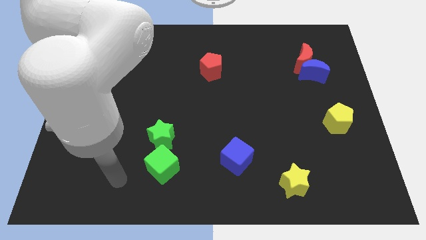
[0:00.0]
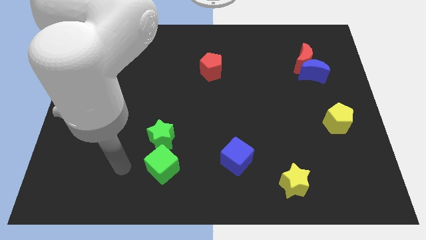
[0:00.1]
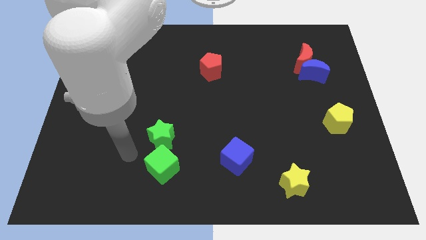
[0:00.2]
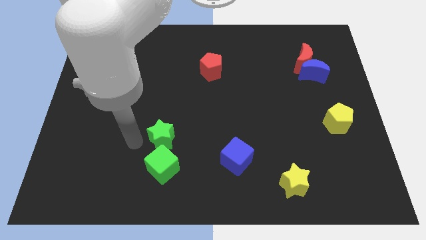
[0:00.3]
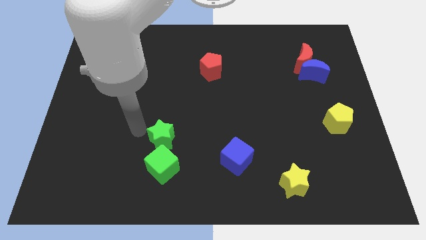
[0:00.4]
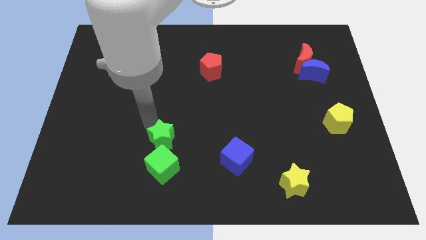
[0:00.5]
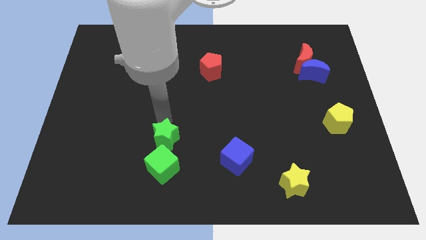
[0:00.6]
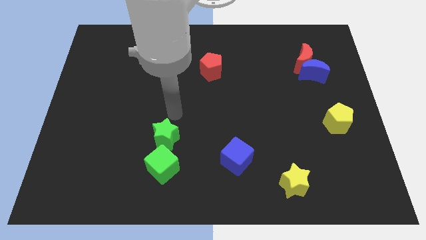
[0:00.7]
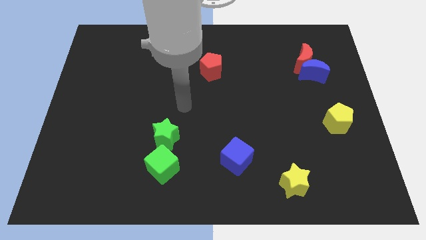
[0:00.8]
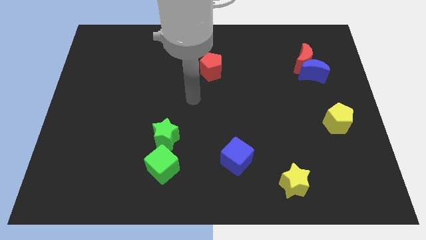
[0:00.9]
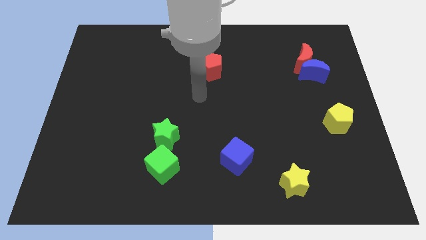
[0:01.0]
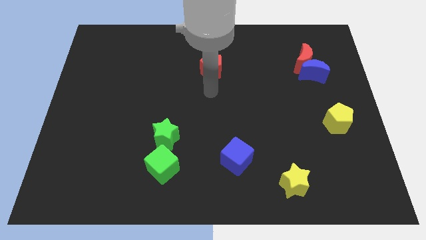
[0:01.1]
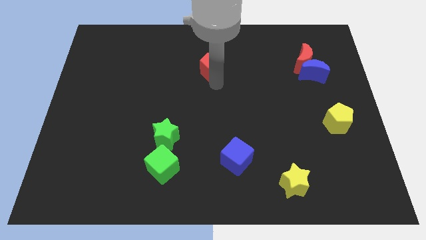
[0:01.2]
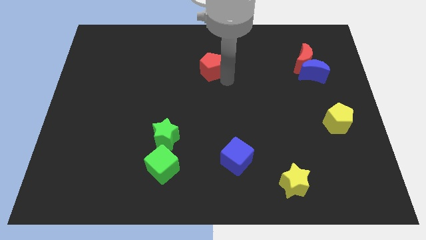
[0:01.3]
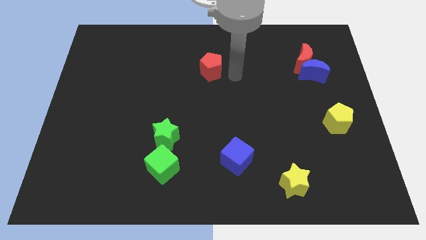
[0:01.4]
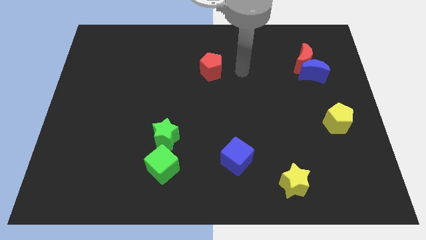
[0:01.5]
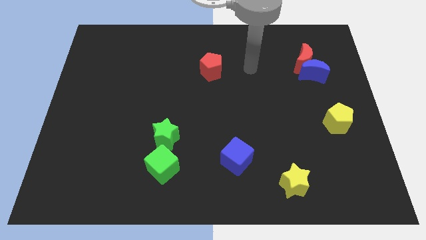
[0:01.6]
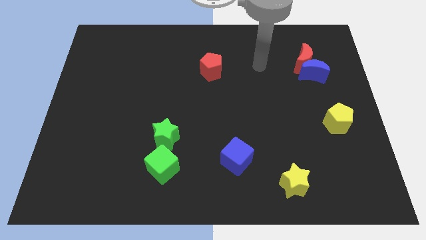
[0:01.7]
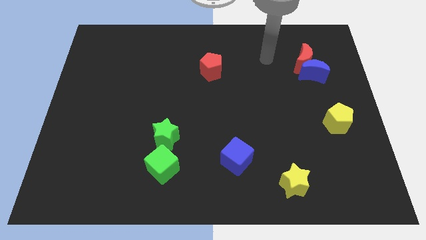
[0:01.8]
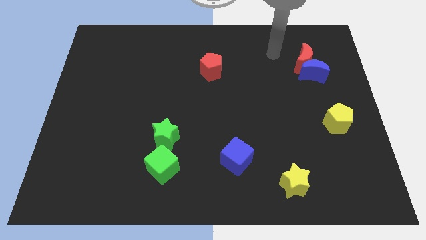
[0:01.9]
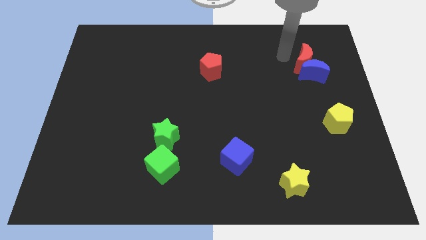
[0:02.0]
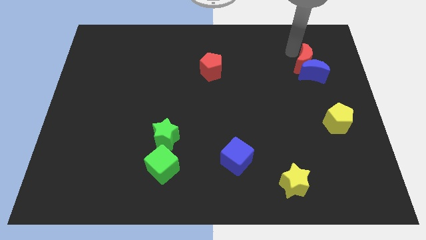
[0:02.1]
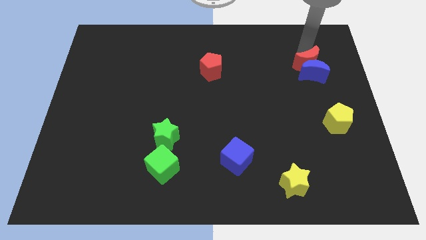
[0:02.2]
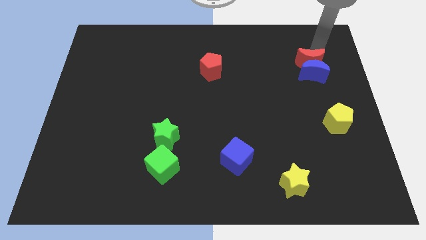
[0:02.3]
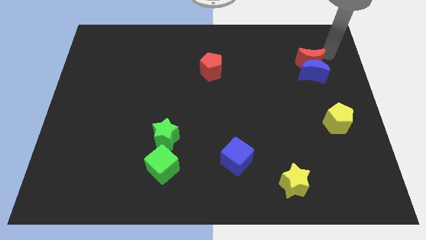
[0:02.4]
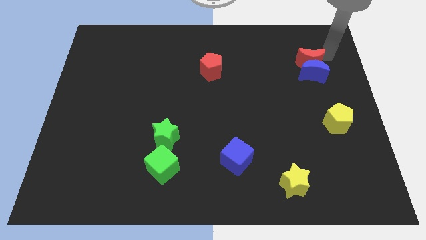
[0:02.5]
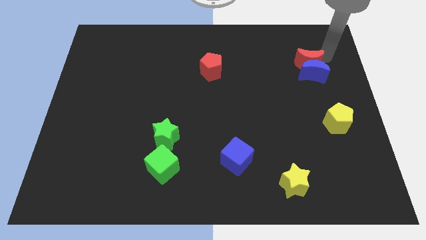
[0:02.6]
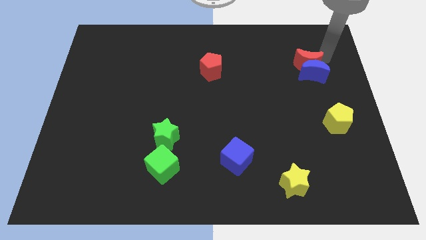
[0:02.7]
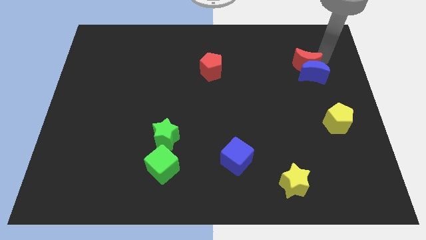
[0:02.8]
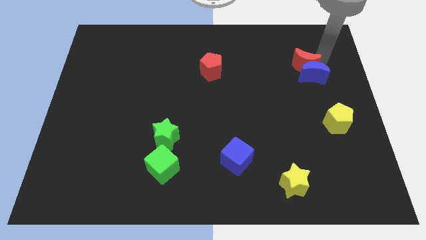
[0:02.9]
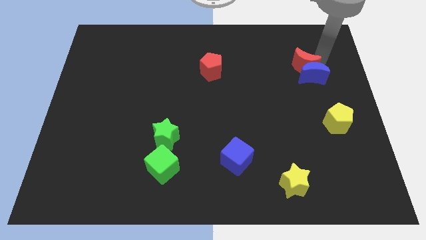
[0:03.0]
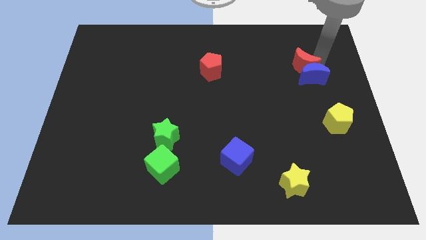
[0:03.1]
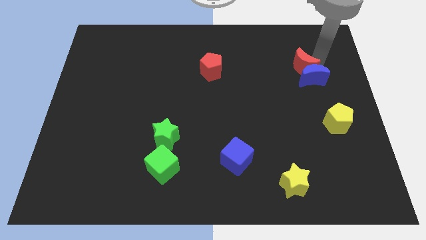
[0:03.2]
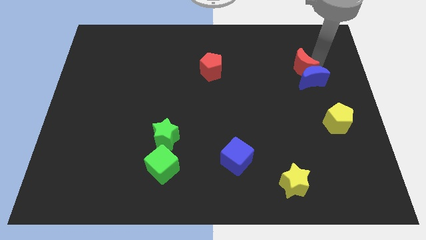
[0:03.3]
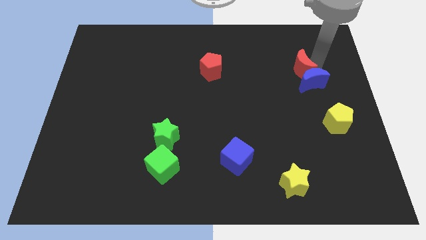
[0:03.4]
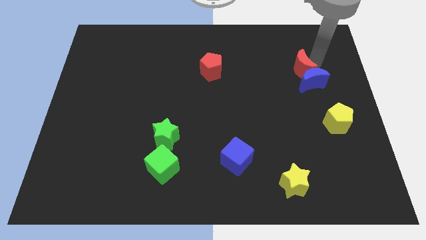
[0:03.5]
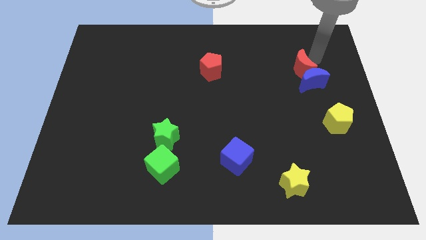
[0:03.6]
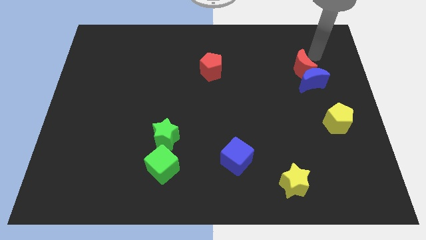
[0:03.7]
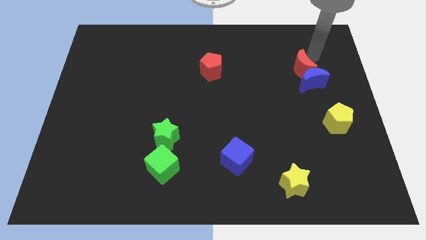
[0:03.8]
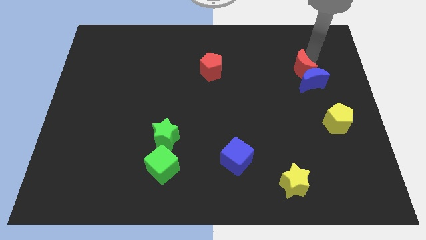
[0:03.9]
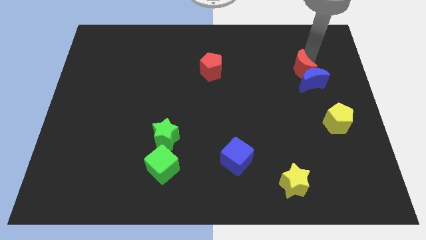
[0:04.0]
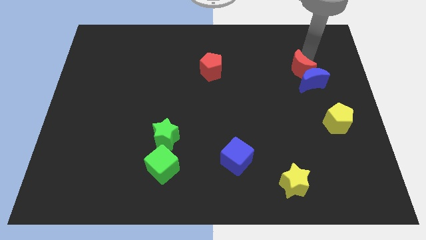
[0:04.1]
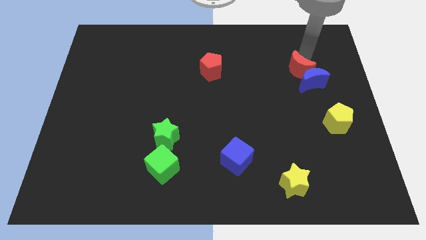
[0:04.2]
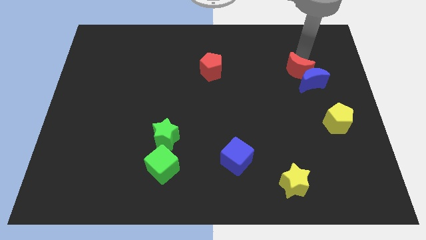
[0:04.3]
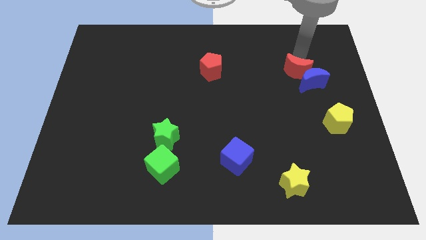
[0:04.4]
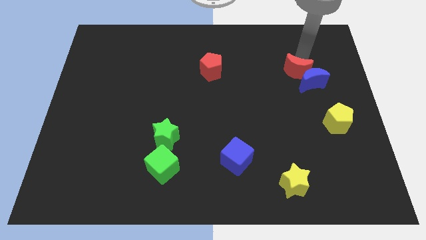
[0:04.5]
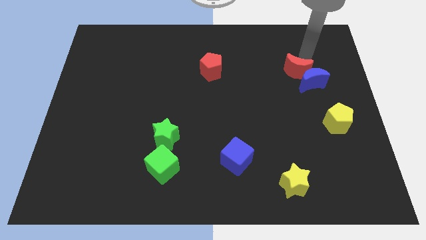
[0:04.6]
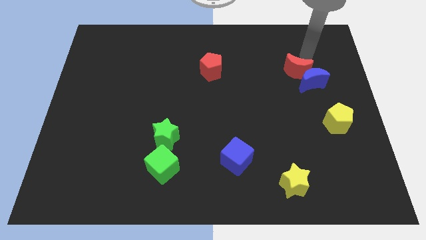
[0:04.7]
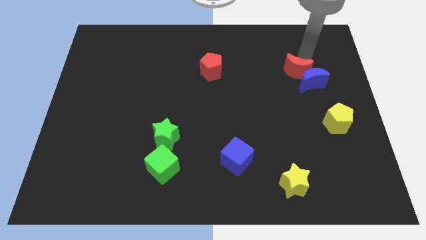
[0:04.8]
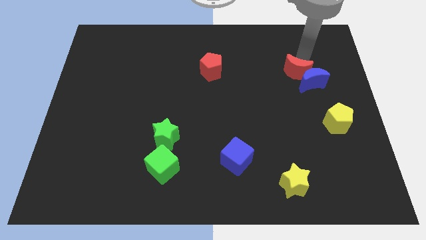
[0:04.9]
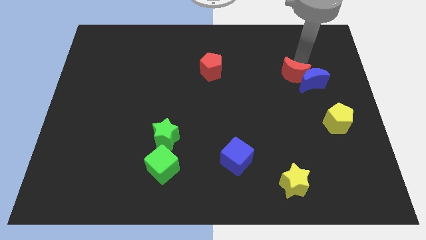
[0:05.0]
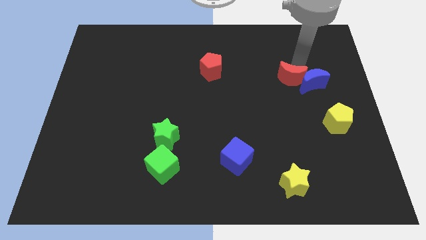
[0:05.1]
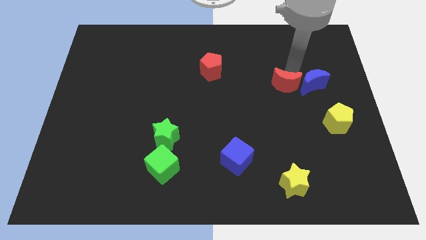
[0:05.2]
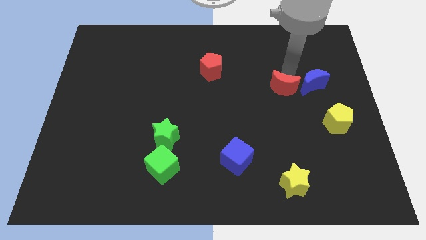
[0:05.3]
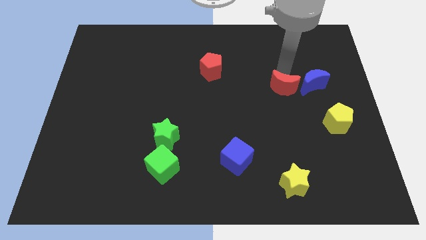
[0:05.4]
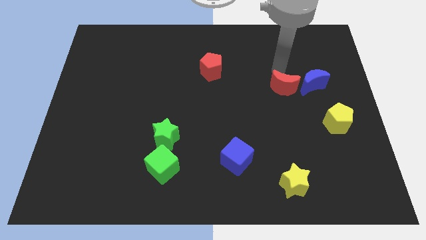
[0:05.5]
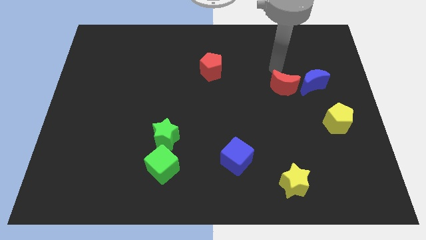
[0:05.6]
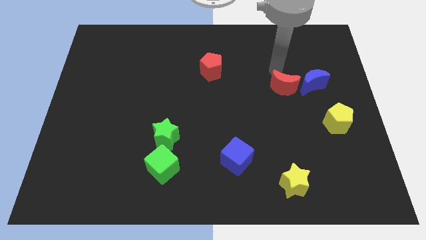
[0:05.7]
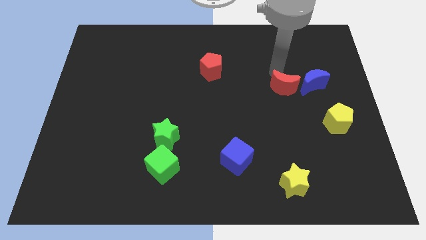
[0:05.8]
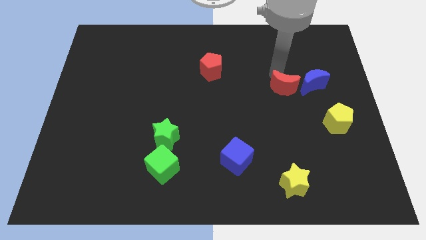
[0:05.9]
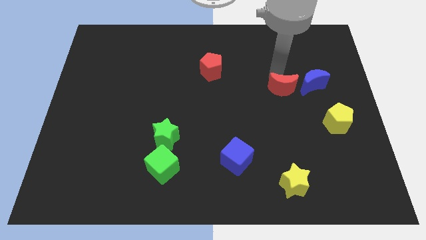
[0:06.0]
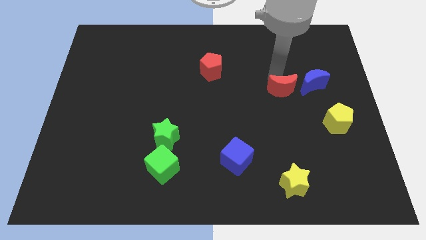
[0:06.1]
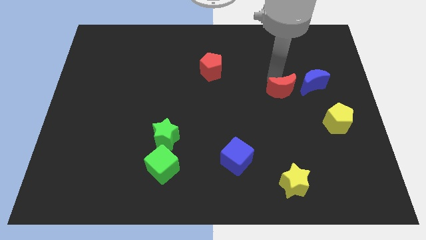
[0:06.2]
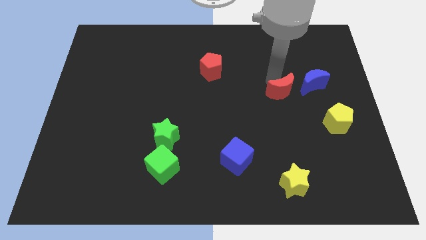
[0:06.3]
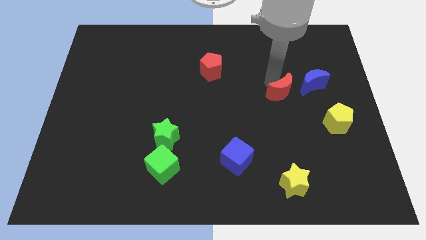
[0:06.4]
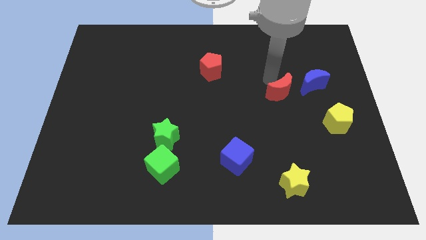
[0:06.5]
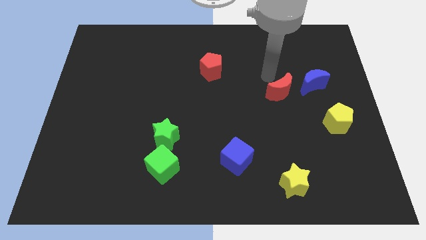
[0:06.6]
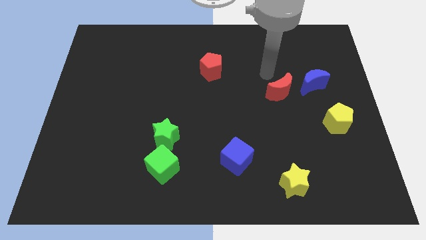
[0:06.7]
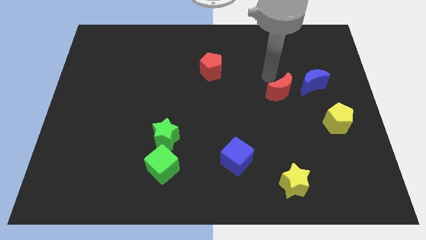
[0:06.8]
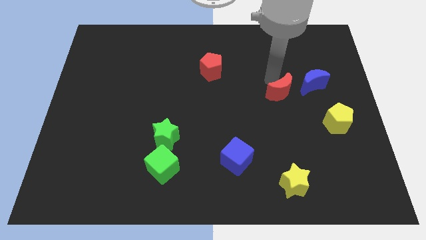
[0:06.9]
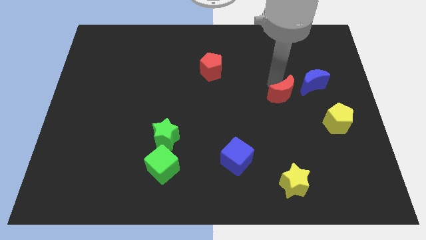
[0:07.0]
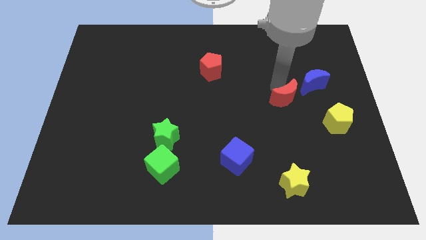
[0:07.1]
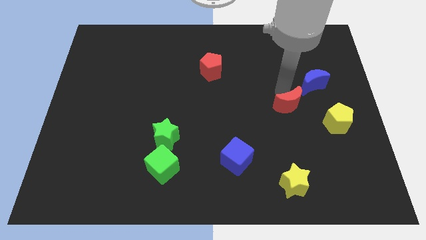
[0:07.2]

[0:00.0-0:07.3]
push the red moon left of the yellow pentagon
